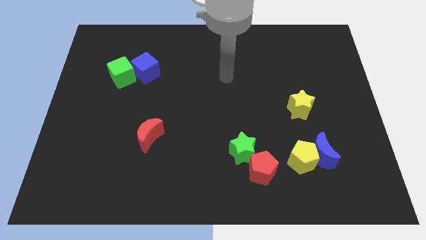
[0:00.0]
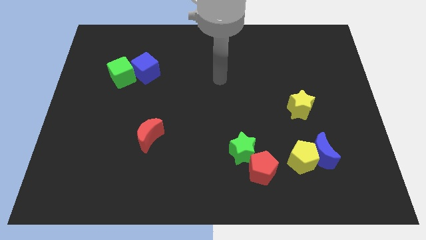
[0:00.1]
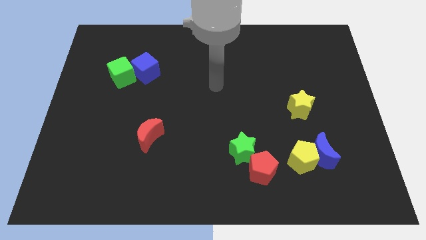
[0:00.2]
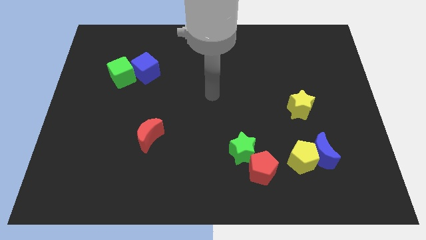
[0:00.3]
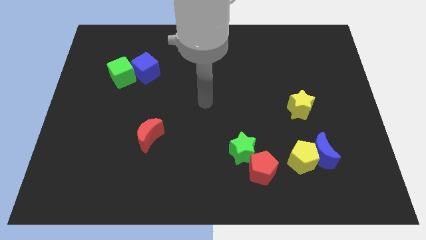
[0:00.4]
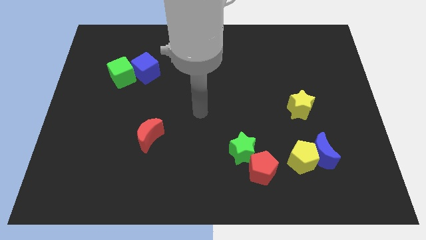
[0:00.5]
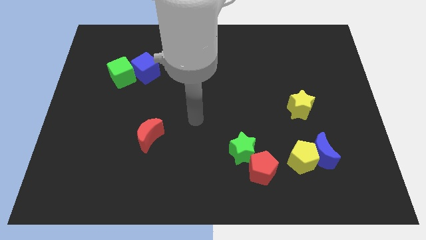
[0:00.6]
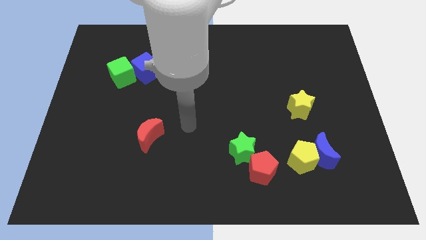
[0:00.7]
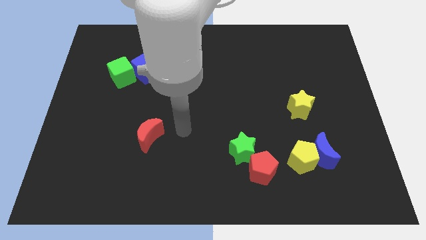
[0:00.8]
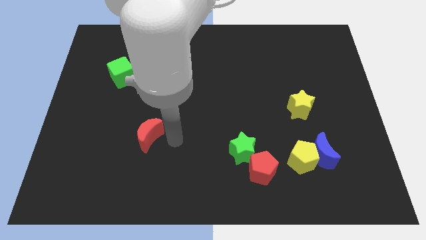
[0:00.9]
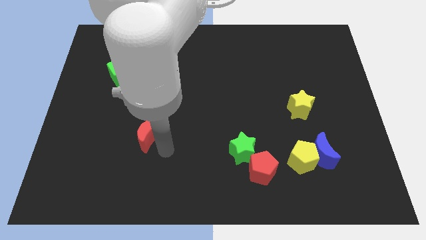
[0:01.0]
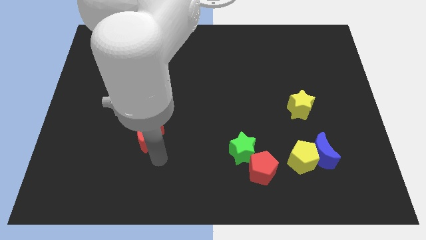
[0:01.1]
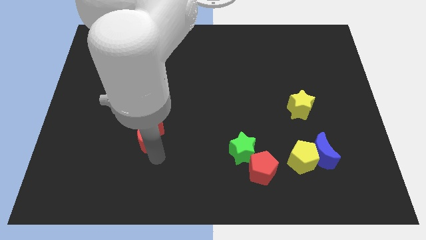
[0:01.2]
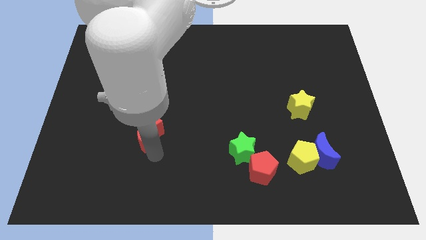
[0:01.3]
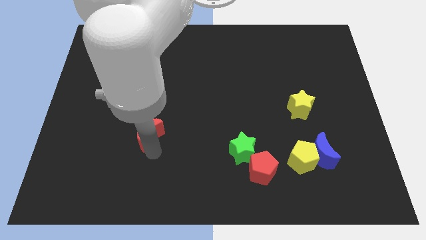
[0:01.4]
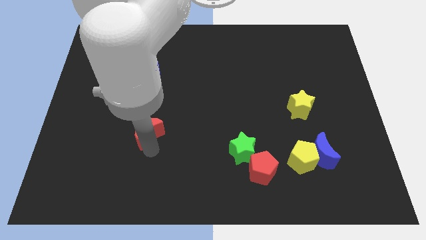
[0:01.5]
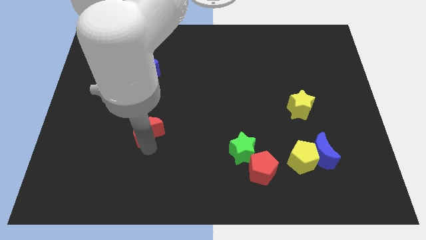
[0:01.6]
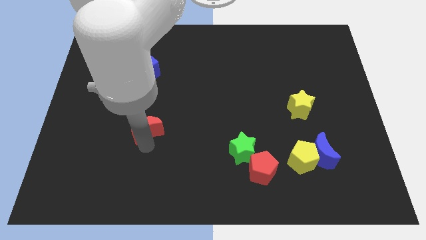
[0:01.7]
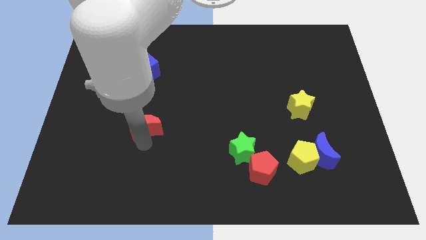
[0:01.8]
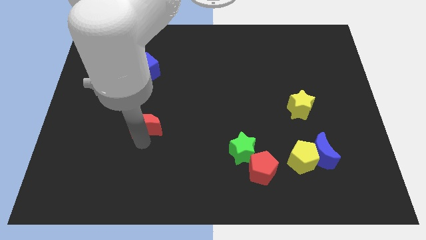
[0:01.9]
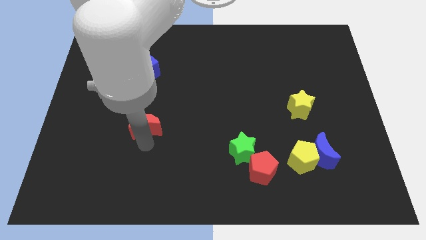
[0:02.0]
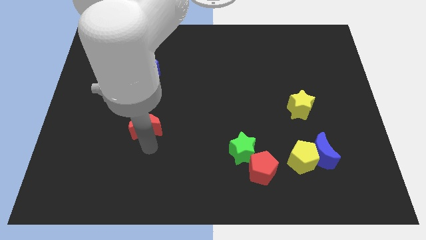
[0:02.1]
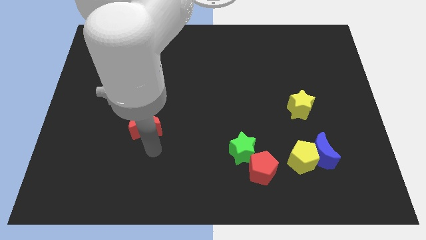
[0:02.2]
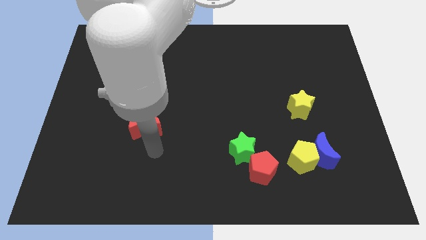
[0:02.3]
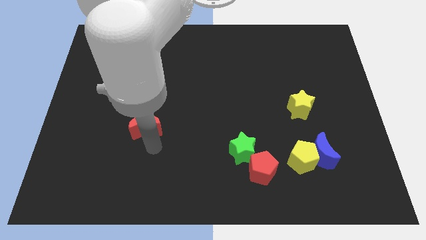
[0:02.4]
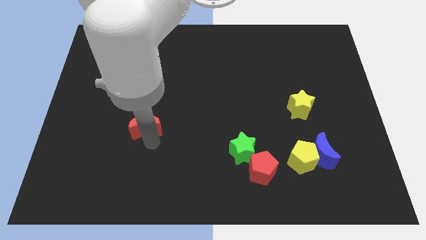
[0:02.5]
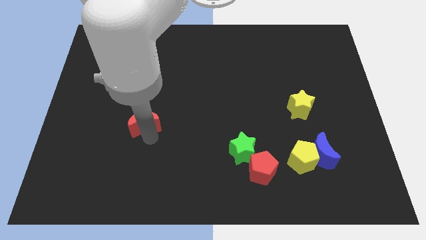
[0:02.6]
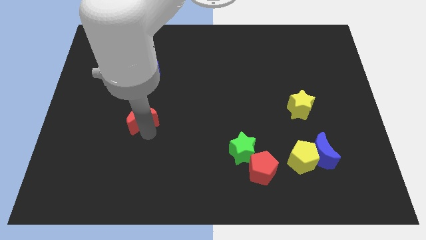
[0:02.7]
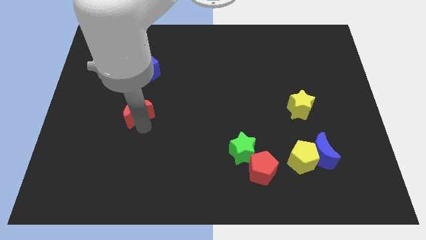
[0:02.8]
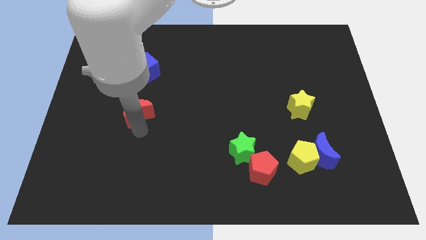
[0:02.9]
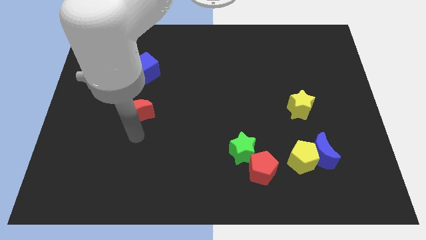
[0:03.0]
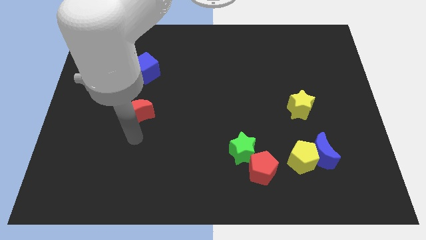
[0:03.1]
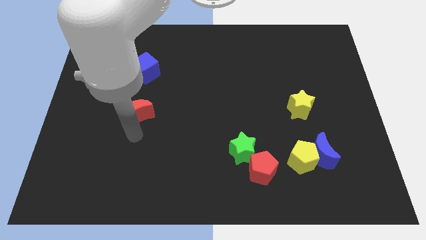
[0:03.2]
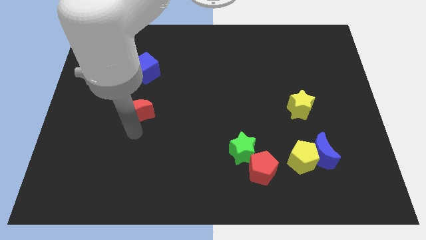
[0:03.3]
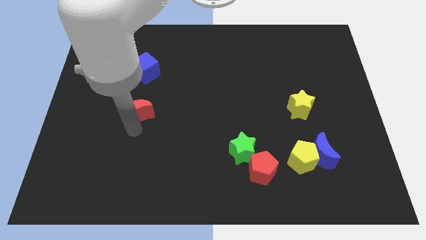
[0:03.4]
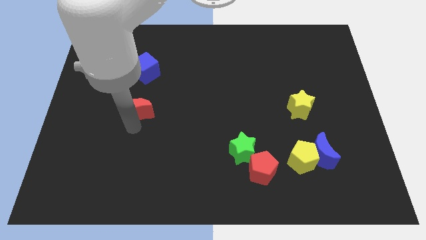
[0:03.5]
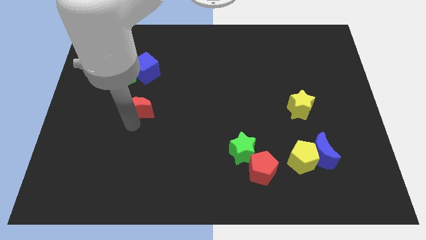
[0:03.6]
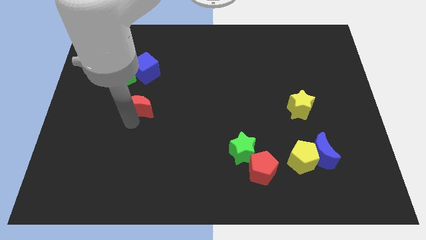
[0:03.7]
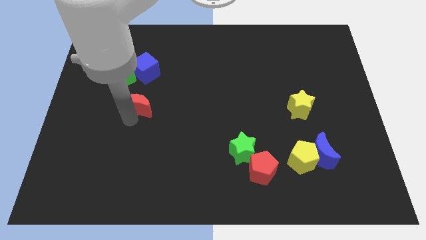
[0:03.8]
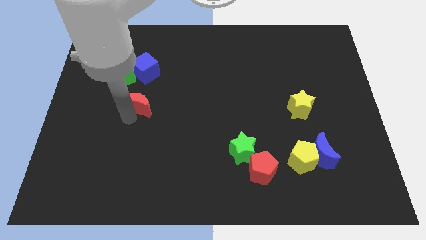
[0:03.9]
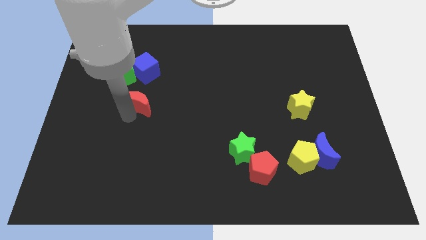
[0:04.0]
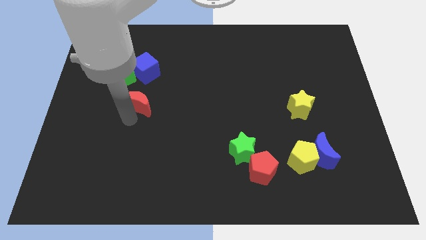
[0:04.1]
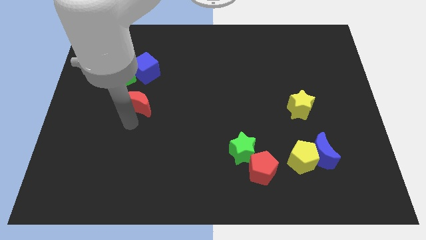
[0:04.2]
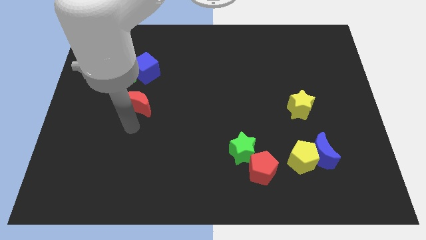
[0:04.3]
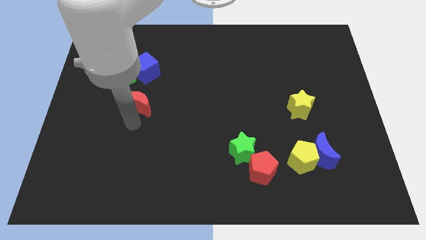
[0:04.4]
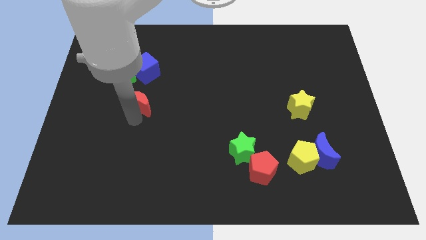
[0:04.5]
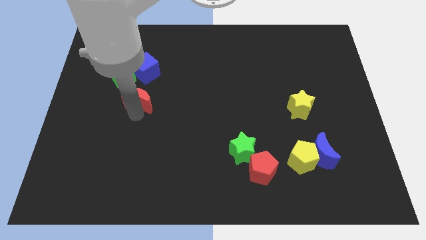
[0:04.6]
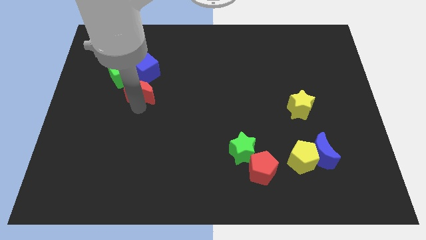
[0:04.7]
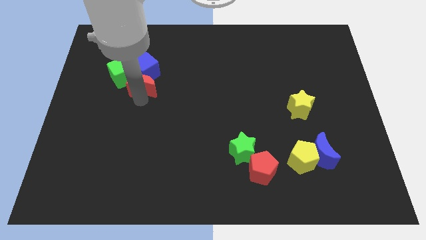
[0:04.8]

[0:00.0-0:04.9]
move the red moon close to the blue cube

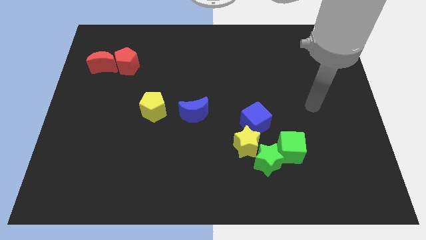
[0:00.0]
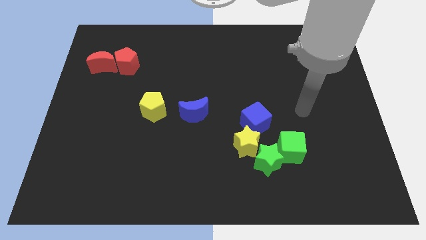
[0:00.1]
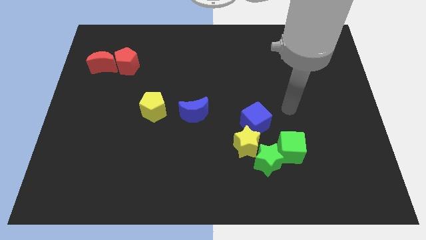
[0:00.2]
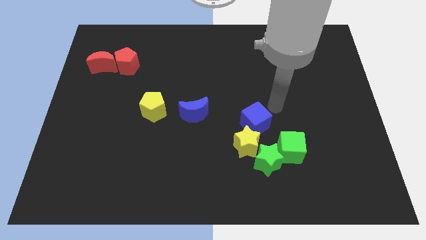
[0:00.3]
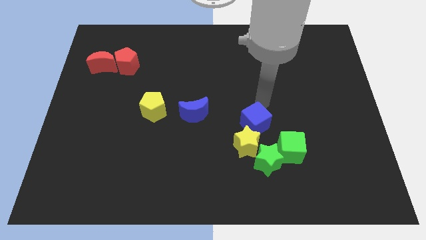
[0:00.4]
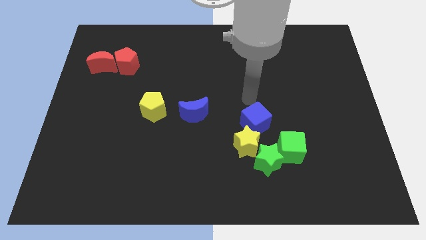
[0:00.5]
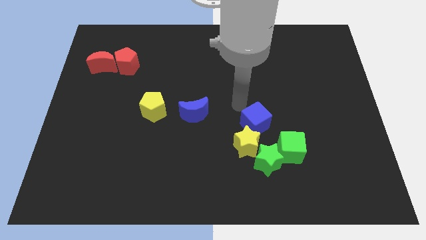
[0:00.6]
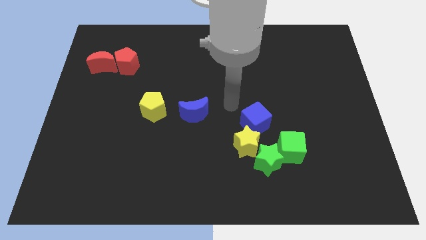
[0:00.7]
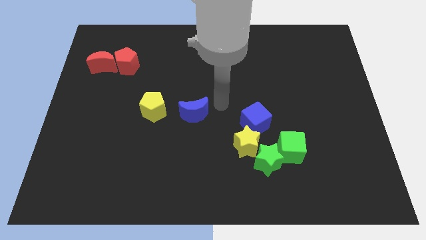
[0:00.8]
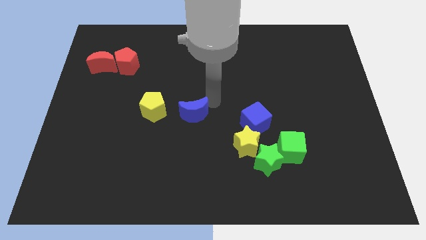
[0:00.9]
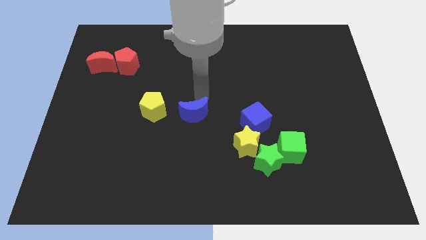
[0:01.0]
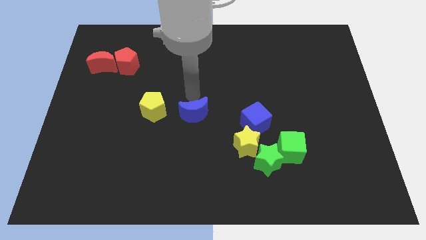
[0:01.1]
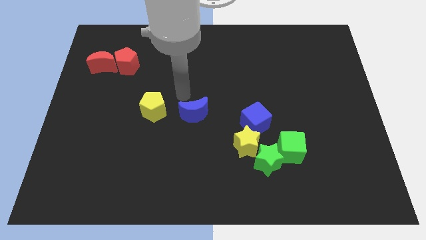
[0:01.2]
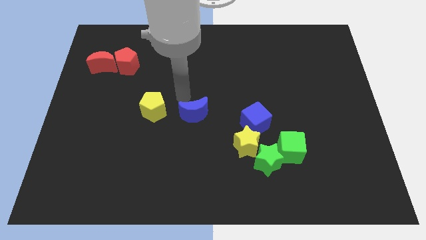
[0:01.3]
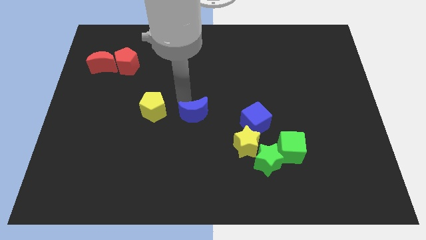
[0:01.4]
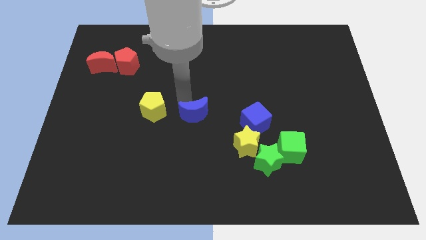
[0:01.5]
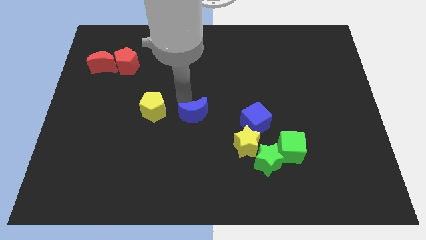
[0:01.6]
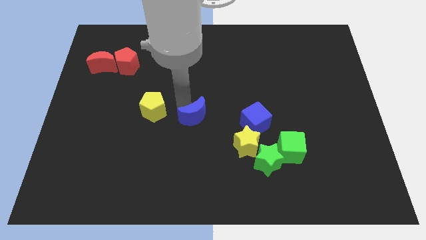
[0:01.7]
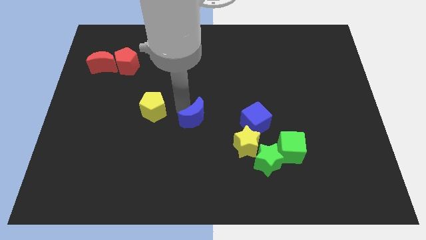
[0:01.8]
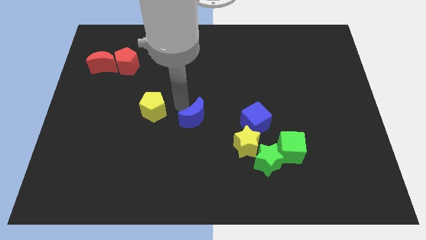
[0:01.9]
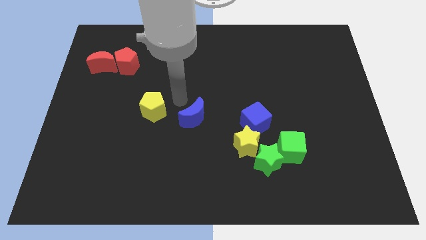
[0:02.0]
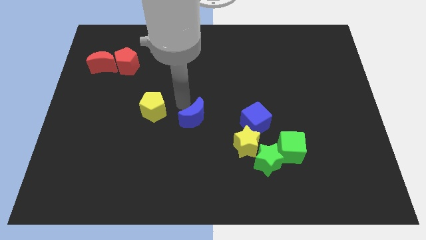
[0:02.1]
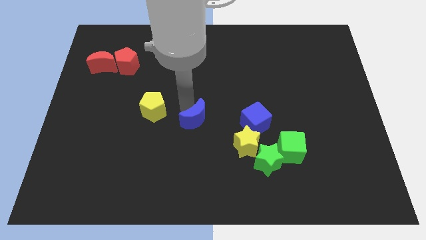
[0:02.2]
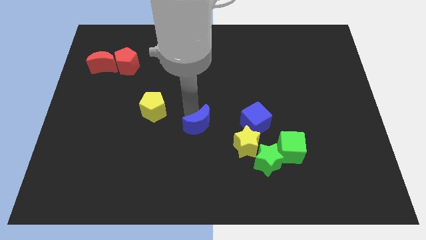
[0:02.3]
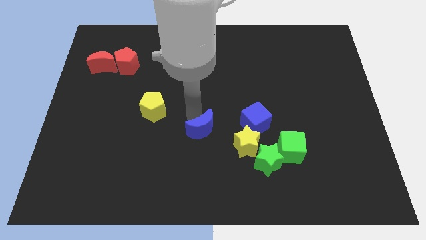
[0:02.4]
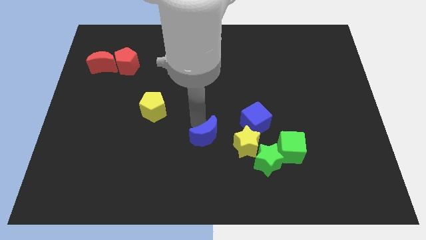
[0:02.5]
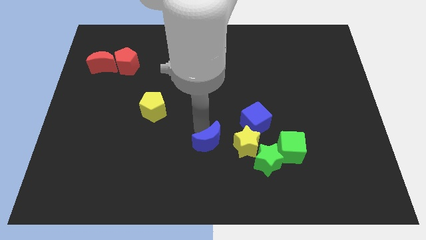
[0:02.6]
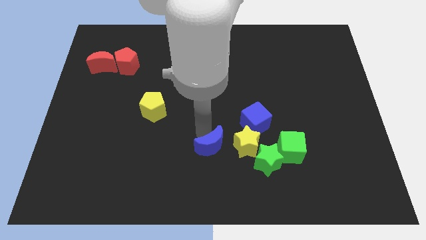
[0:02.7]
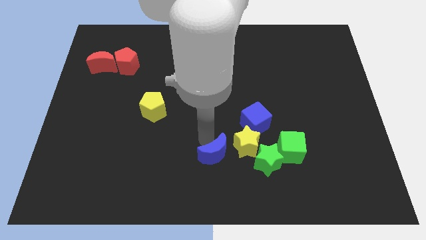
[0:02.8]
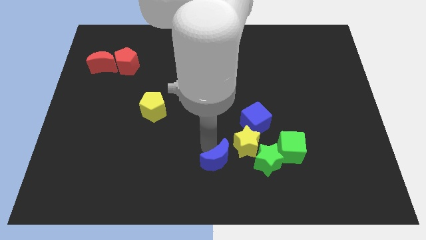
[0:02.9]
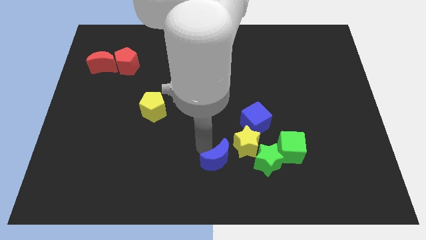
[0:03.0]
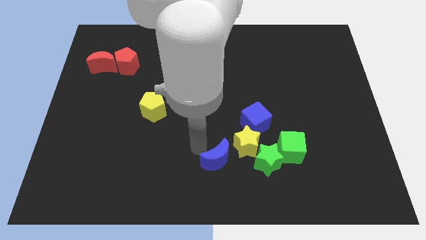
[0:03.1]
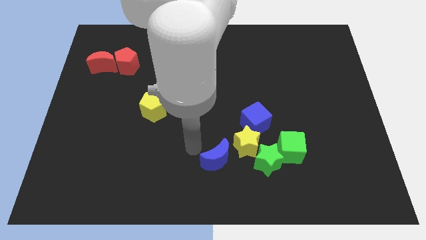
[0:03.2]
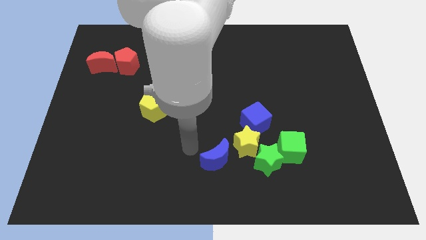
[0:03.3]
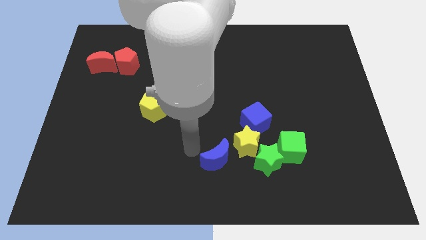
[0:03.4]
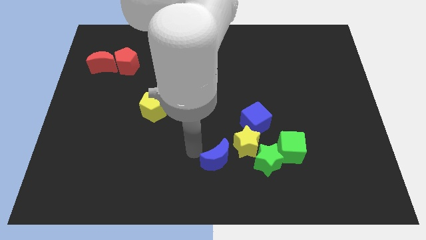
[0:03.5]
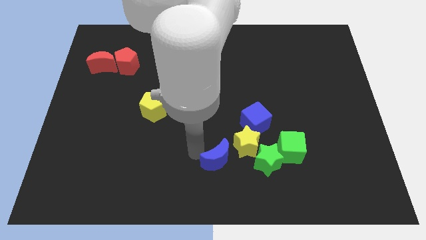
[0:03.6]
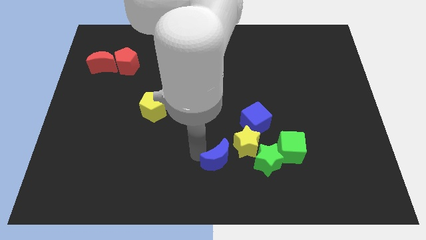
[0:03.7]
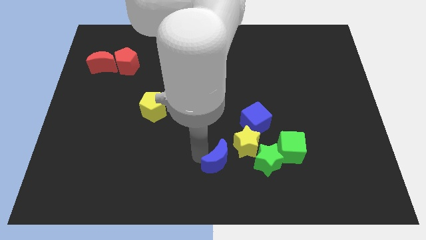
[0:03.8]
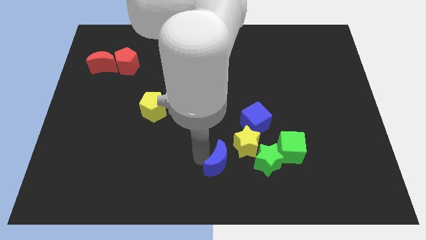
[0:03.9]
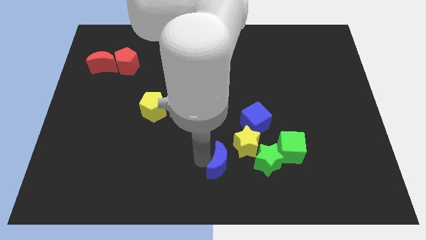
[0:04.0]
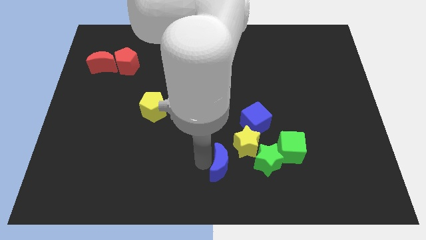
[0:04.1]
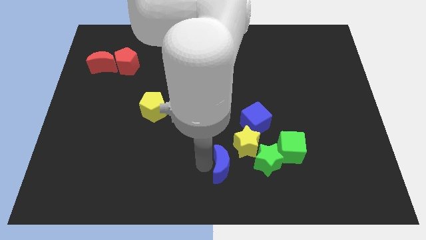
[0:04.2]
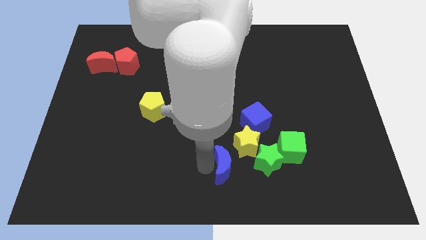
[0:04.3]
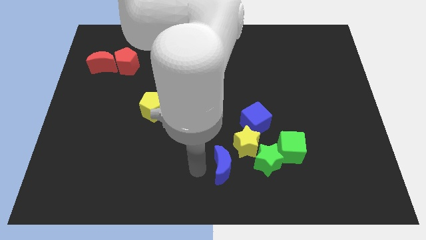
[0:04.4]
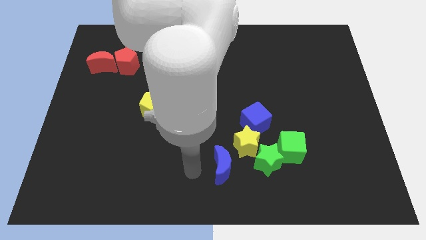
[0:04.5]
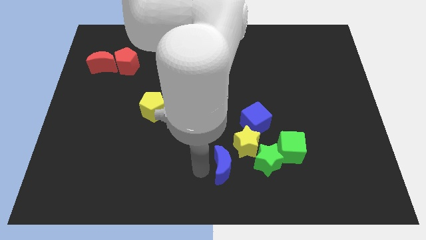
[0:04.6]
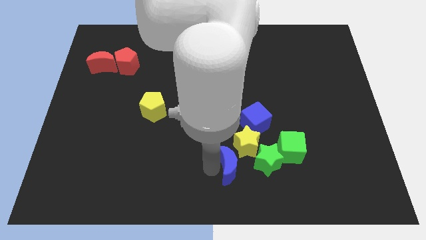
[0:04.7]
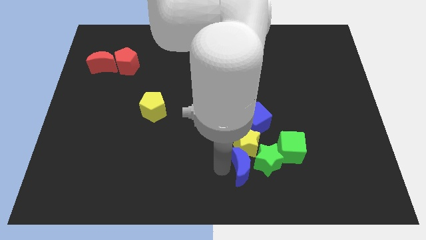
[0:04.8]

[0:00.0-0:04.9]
push the blue moon towards the green star
